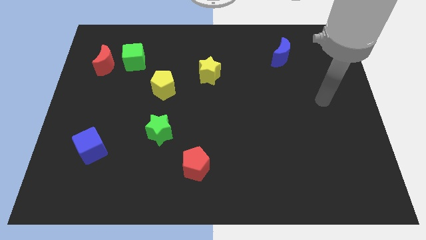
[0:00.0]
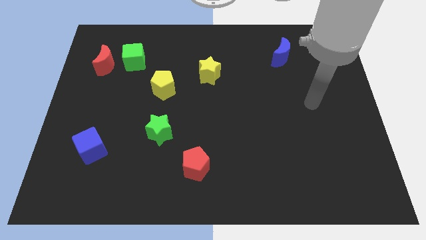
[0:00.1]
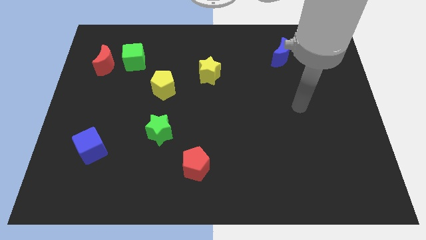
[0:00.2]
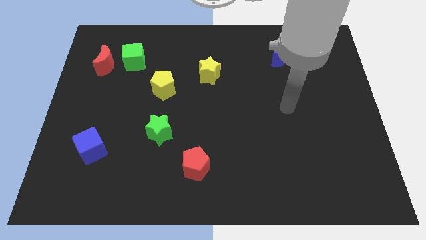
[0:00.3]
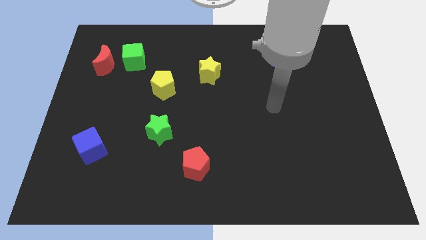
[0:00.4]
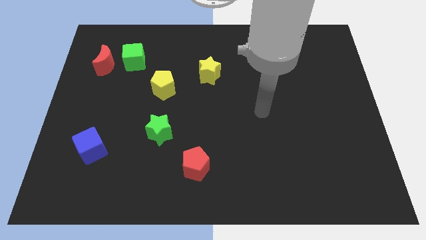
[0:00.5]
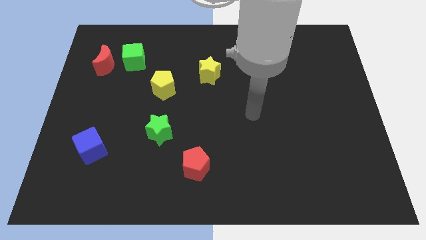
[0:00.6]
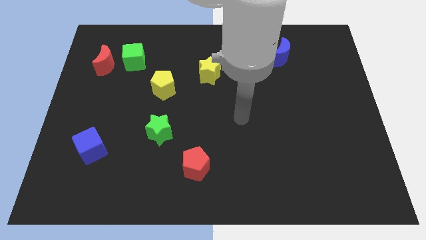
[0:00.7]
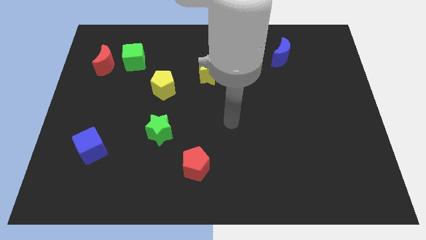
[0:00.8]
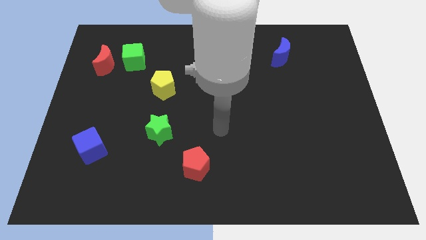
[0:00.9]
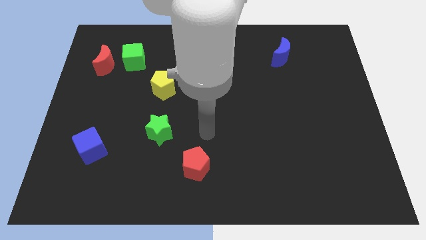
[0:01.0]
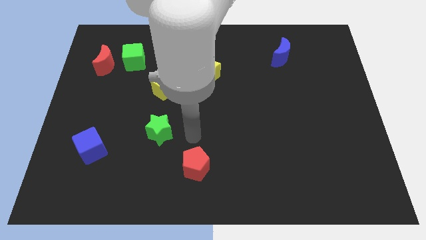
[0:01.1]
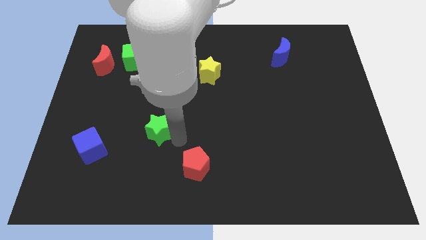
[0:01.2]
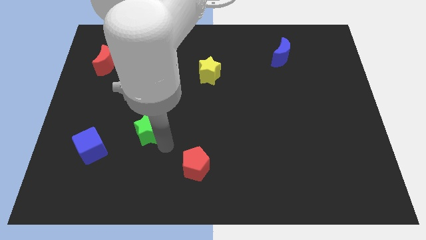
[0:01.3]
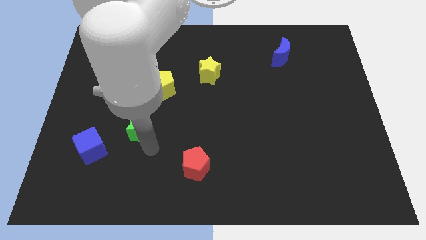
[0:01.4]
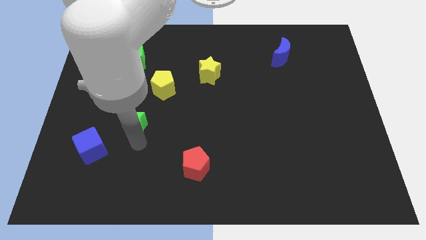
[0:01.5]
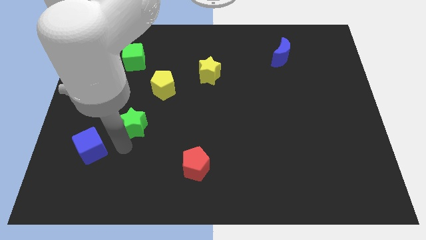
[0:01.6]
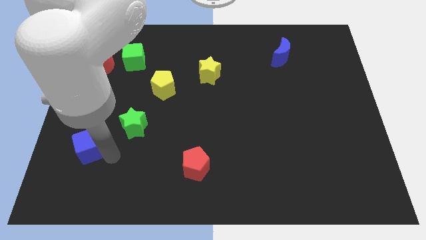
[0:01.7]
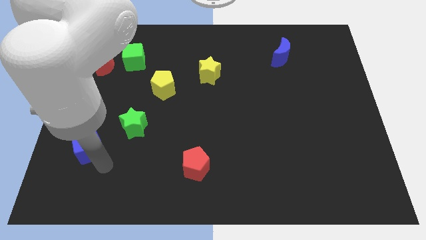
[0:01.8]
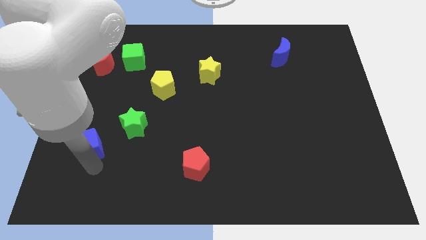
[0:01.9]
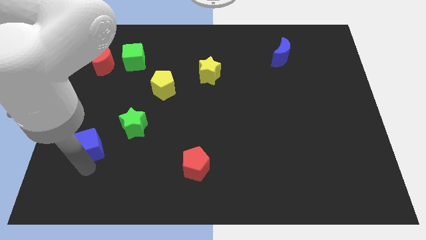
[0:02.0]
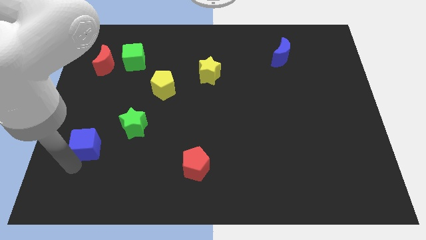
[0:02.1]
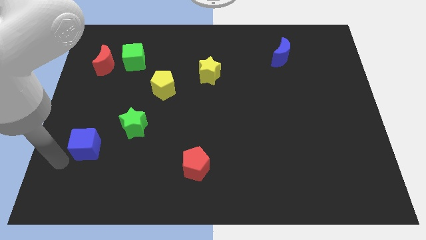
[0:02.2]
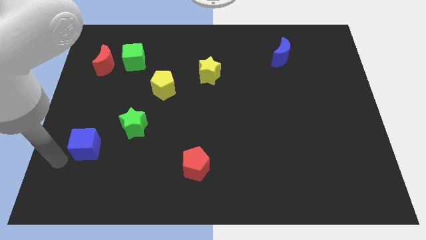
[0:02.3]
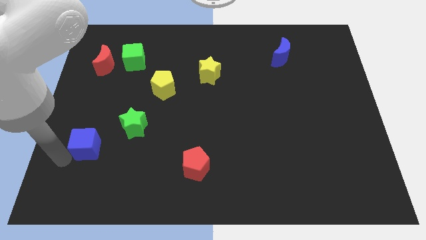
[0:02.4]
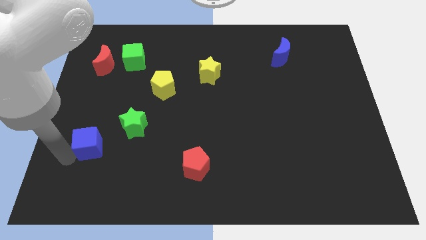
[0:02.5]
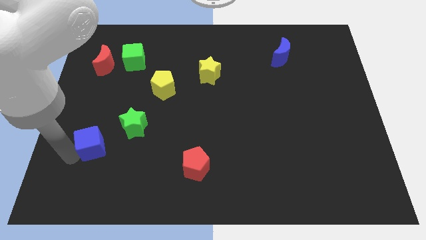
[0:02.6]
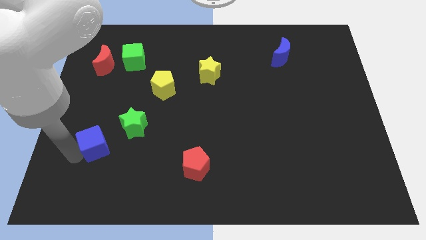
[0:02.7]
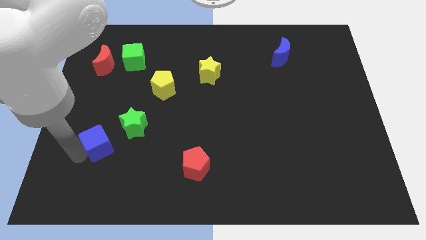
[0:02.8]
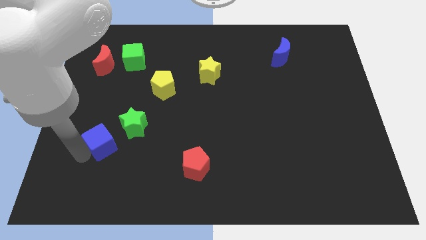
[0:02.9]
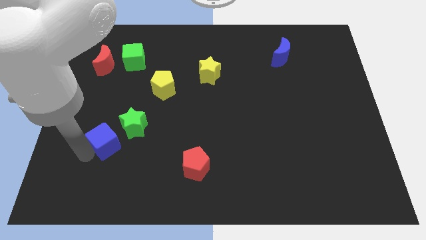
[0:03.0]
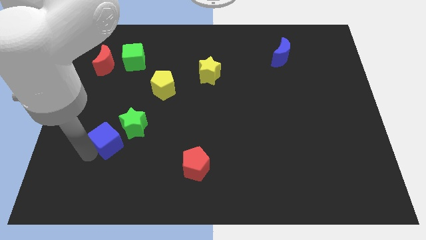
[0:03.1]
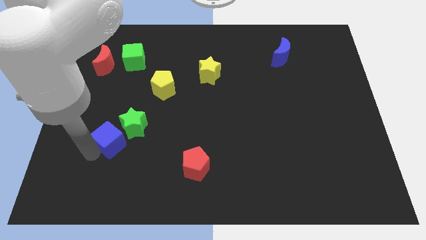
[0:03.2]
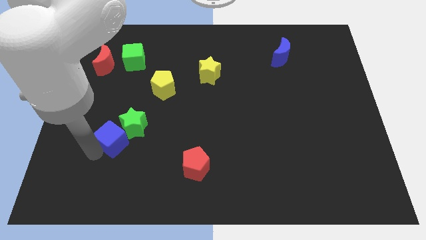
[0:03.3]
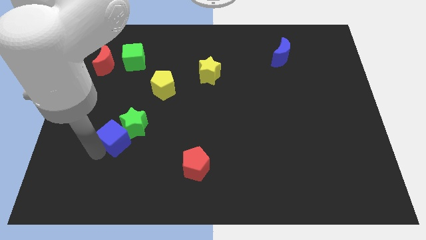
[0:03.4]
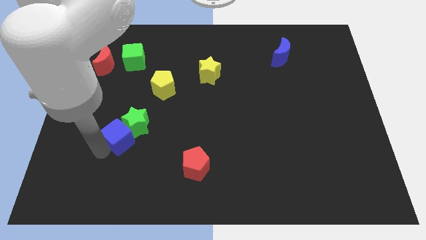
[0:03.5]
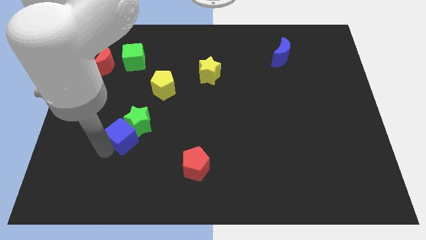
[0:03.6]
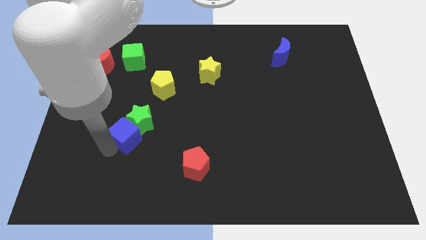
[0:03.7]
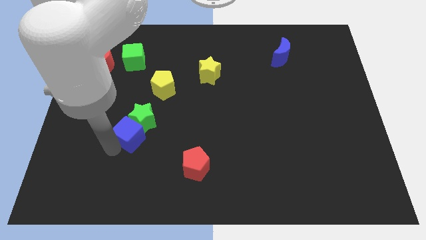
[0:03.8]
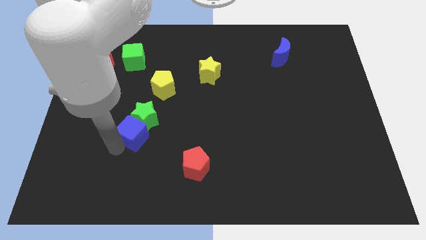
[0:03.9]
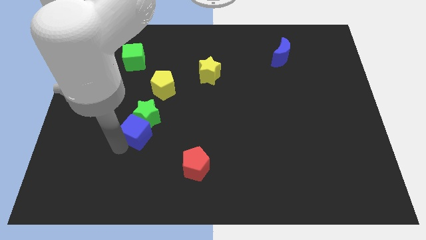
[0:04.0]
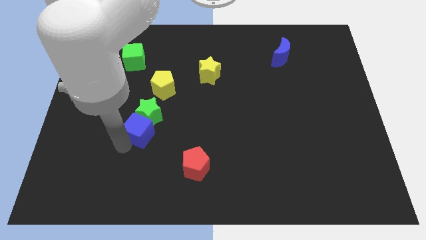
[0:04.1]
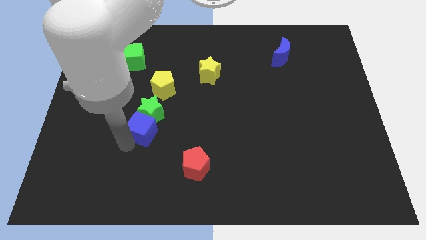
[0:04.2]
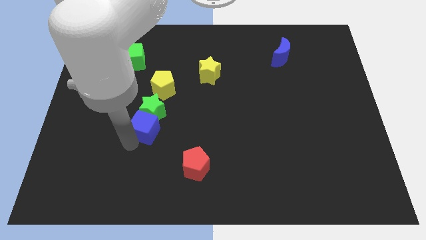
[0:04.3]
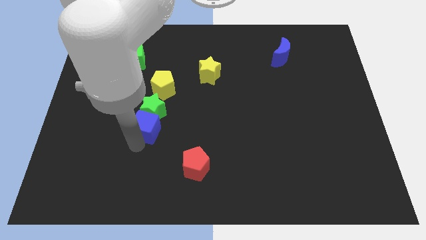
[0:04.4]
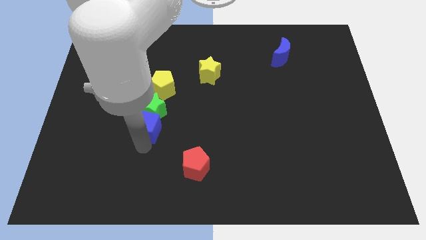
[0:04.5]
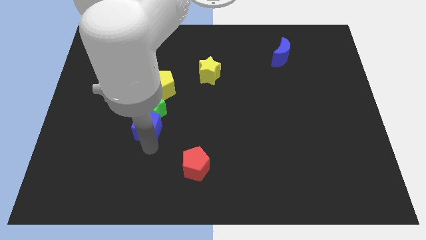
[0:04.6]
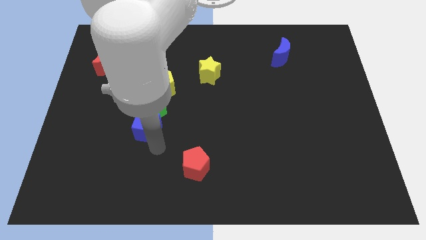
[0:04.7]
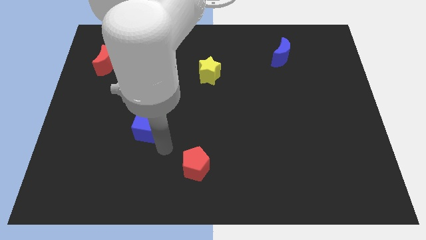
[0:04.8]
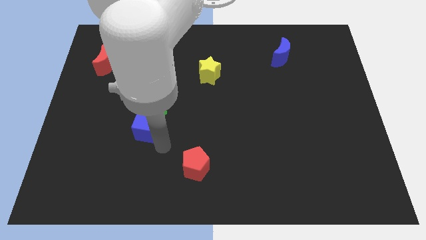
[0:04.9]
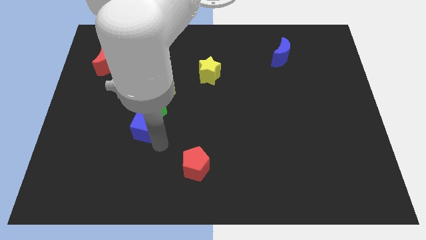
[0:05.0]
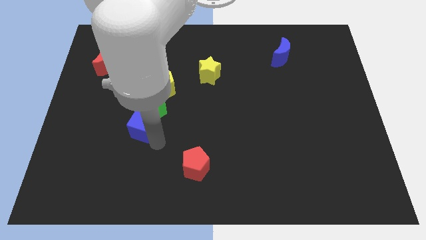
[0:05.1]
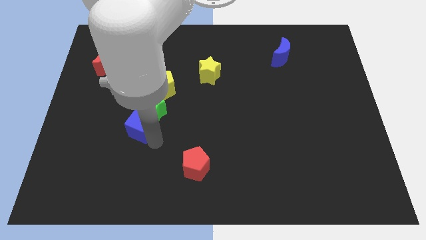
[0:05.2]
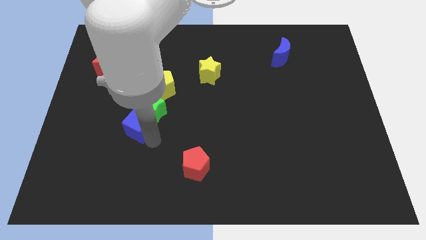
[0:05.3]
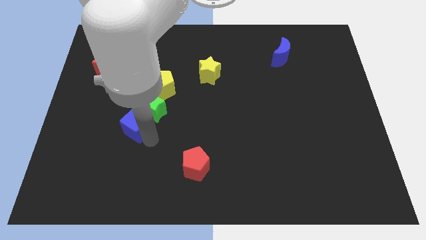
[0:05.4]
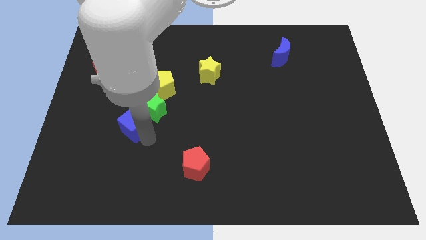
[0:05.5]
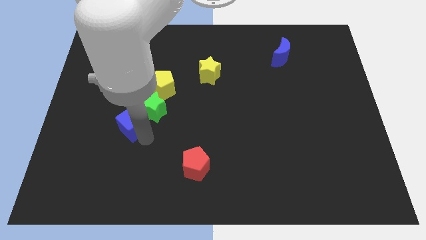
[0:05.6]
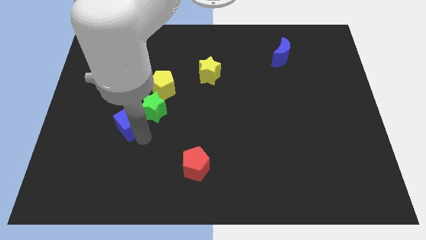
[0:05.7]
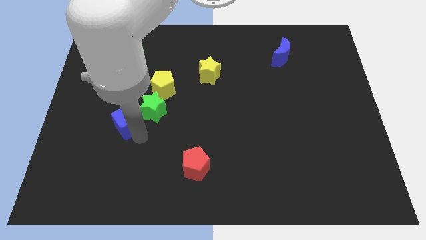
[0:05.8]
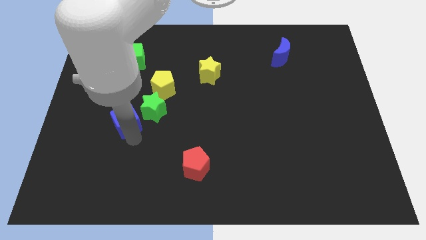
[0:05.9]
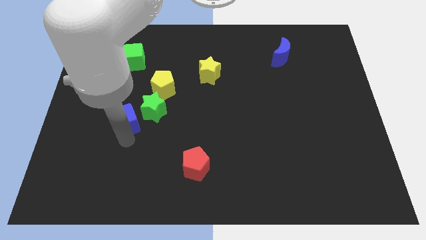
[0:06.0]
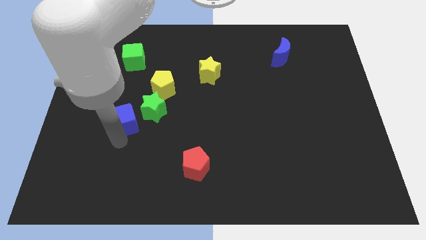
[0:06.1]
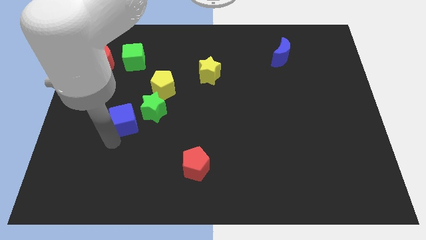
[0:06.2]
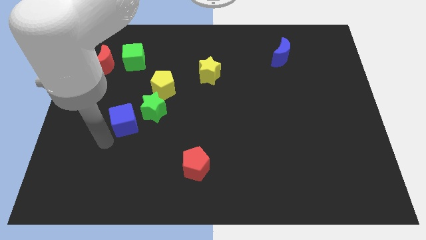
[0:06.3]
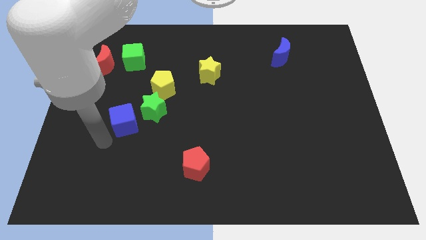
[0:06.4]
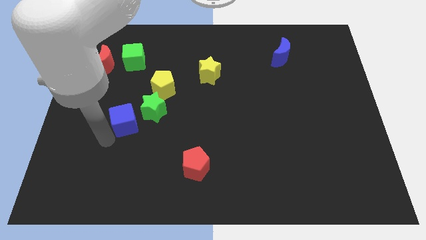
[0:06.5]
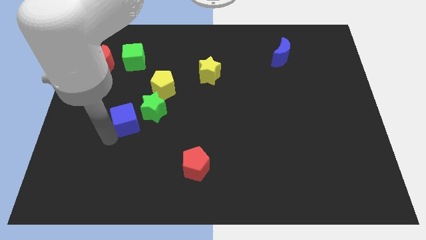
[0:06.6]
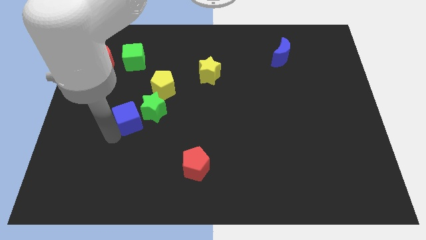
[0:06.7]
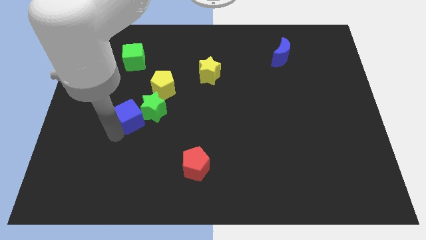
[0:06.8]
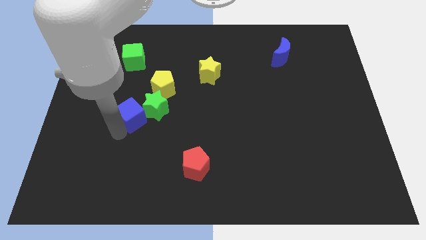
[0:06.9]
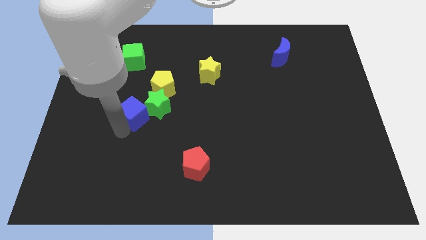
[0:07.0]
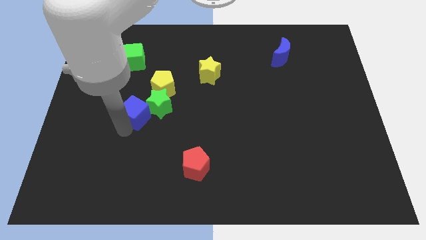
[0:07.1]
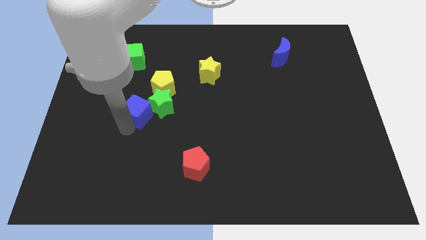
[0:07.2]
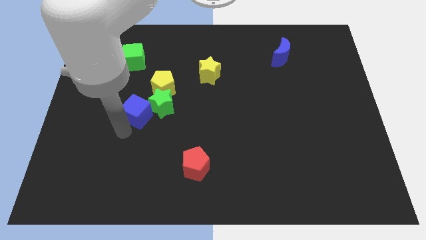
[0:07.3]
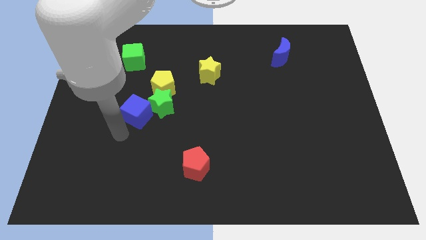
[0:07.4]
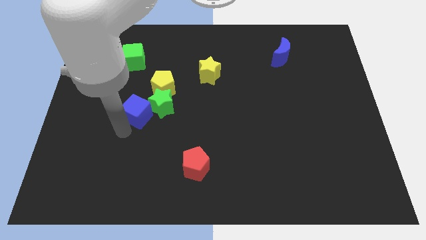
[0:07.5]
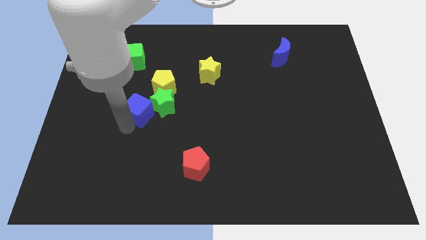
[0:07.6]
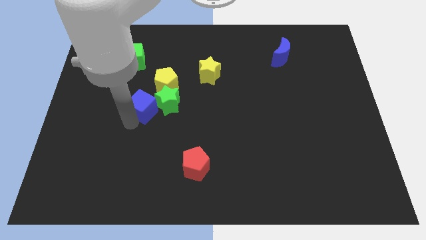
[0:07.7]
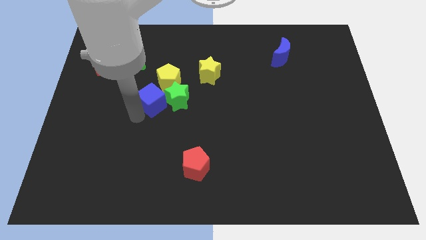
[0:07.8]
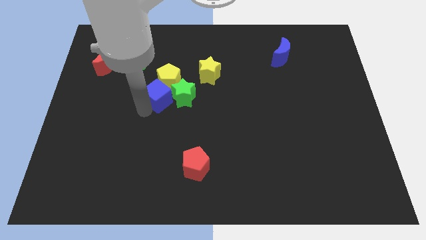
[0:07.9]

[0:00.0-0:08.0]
slide the blue cube towards the yellow pentagon
